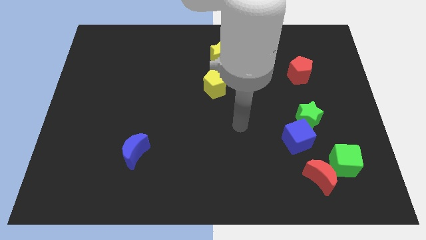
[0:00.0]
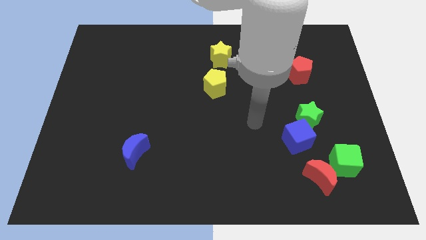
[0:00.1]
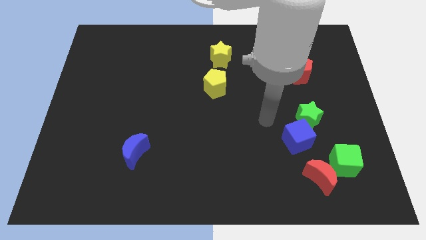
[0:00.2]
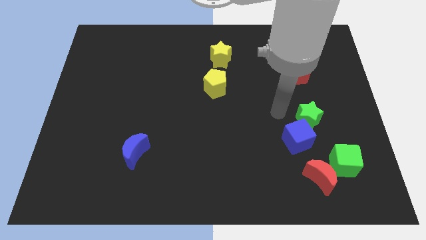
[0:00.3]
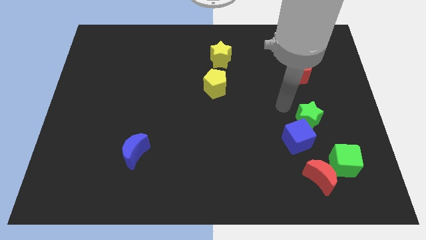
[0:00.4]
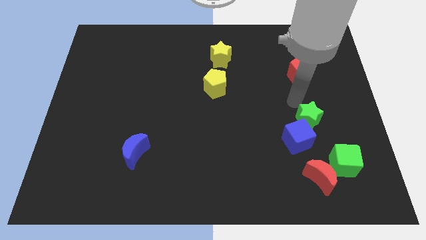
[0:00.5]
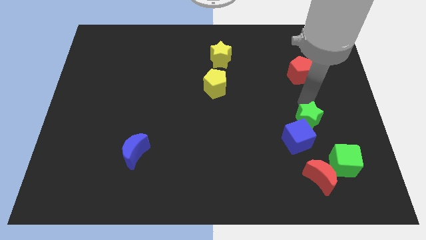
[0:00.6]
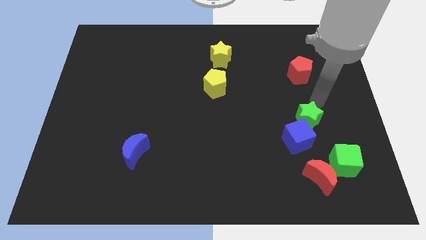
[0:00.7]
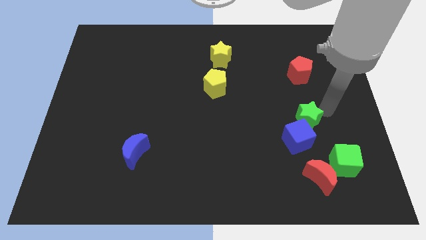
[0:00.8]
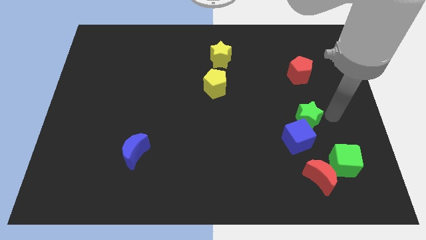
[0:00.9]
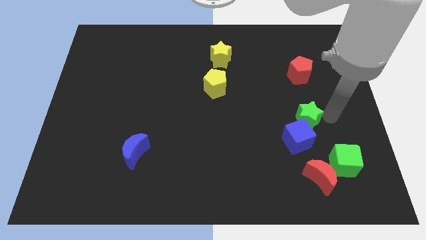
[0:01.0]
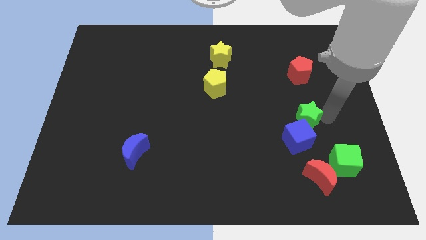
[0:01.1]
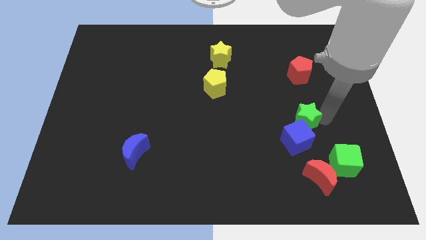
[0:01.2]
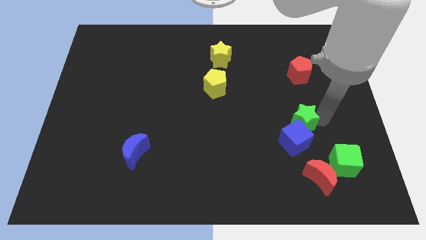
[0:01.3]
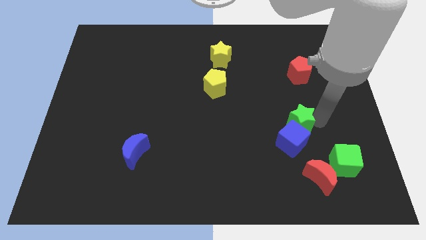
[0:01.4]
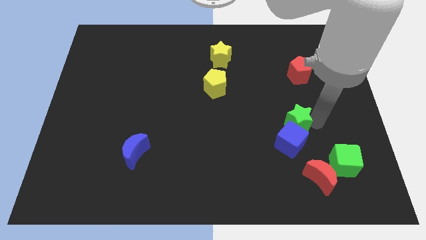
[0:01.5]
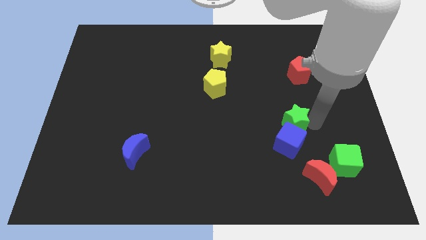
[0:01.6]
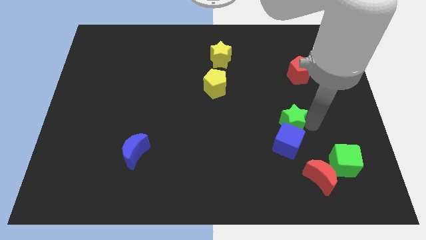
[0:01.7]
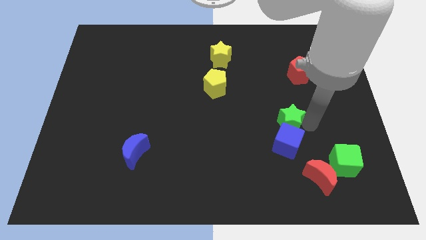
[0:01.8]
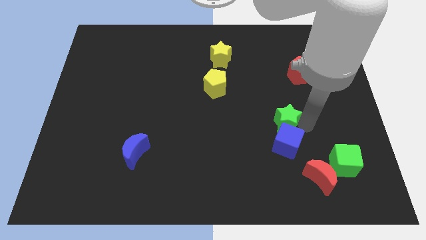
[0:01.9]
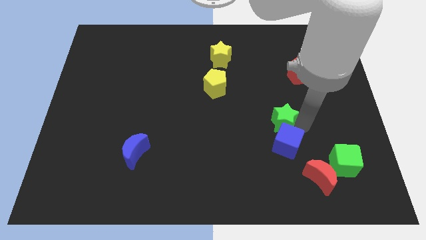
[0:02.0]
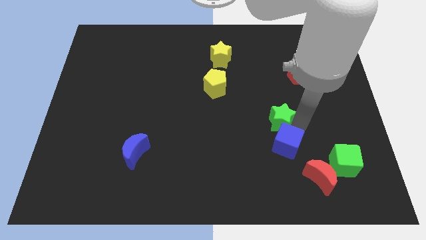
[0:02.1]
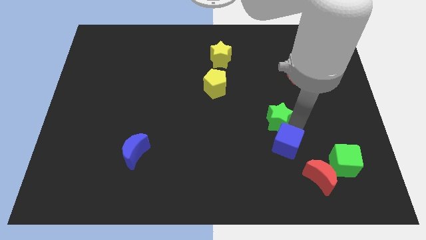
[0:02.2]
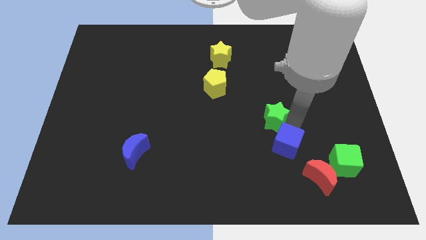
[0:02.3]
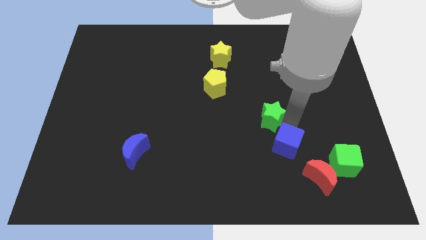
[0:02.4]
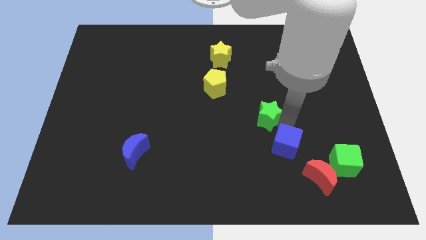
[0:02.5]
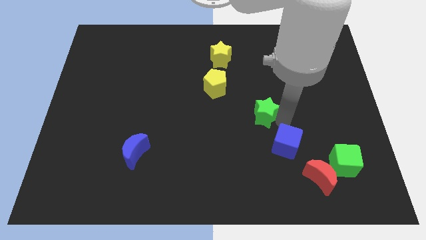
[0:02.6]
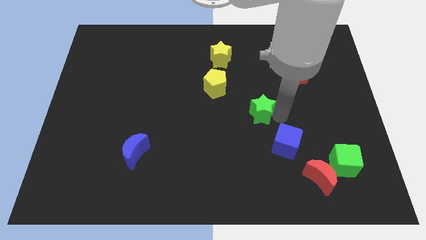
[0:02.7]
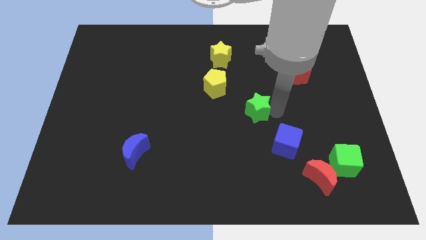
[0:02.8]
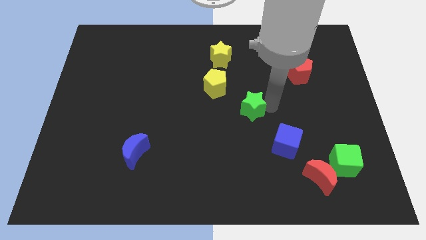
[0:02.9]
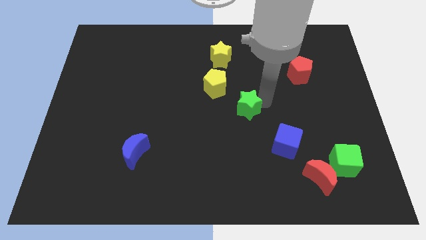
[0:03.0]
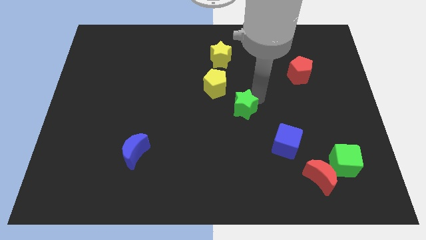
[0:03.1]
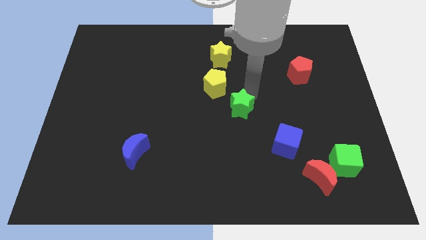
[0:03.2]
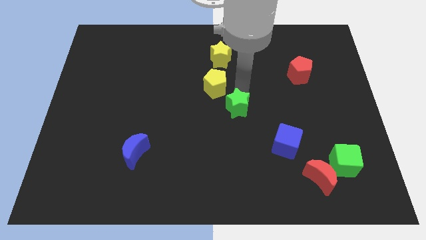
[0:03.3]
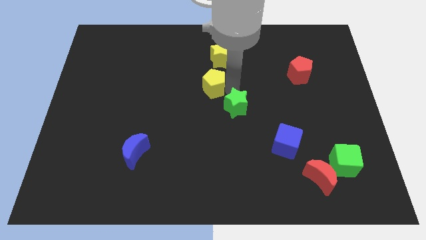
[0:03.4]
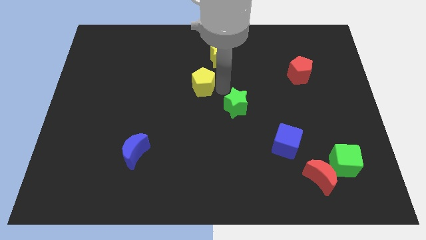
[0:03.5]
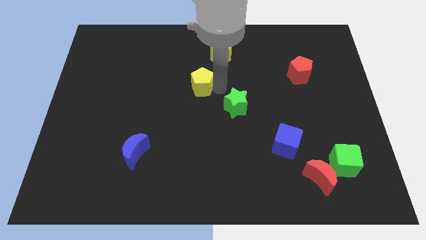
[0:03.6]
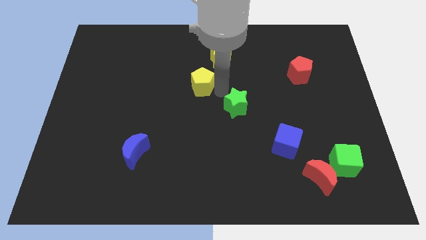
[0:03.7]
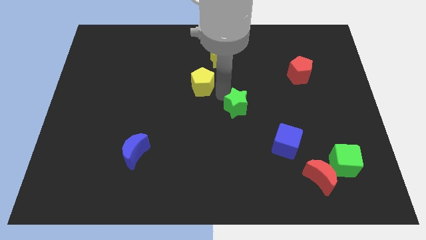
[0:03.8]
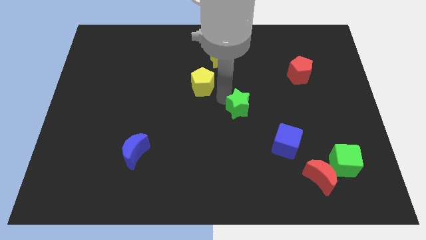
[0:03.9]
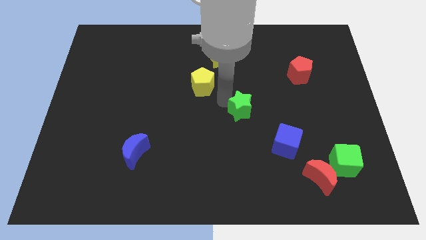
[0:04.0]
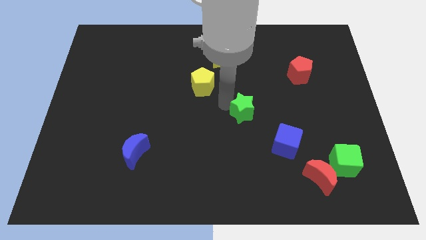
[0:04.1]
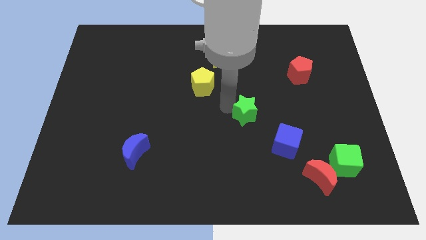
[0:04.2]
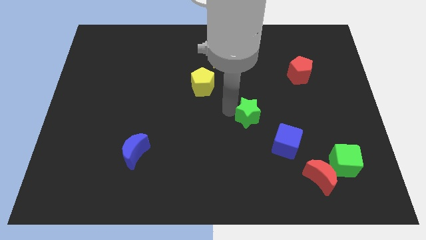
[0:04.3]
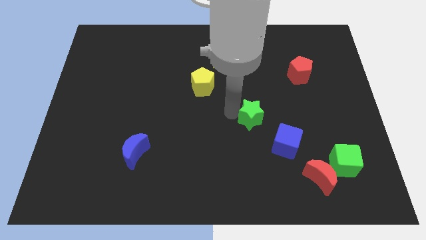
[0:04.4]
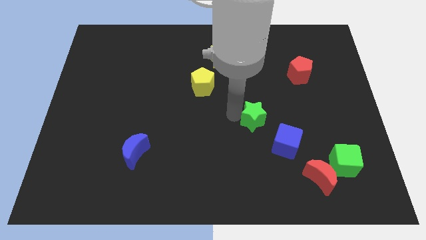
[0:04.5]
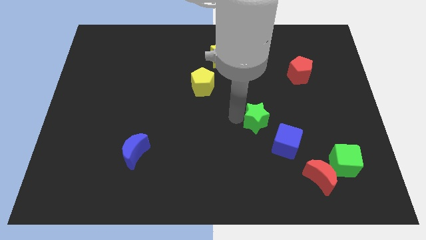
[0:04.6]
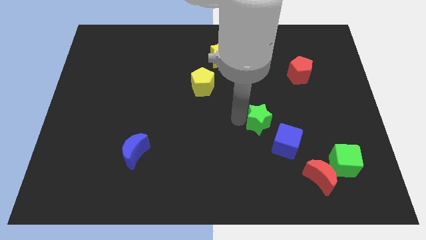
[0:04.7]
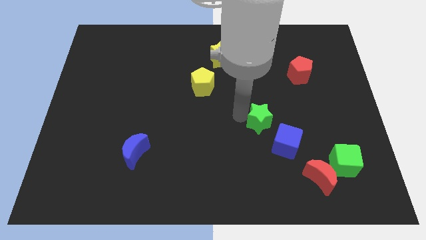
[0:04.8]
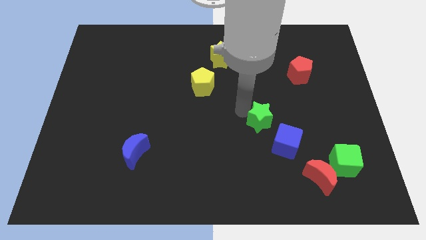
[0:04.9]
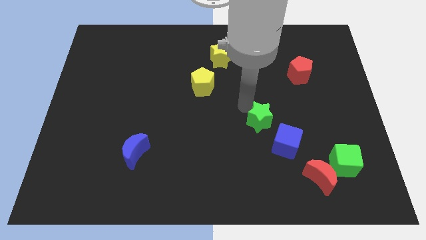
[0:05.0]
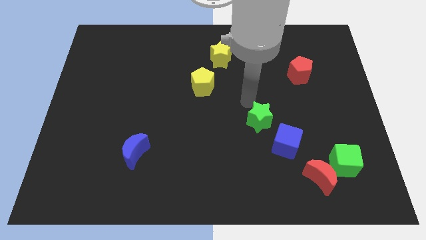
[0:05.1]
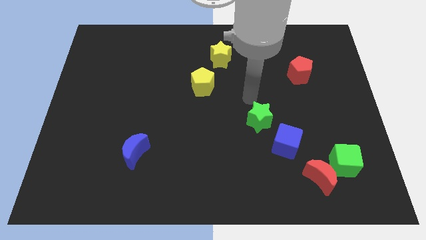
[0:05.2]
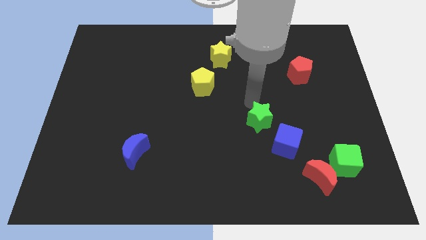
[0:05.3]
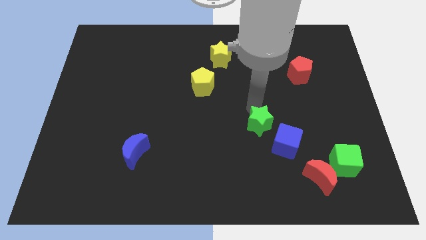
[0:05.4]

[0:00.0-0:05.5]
slide the green star a little diagonally downwards and left

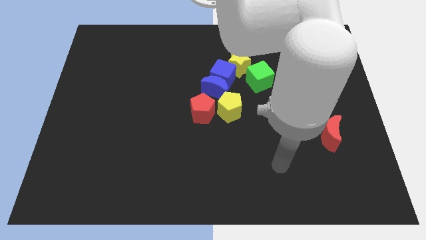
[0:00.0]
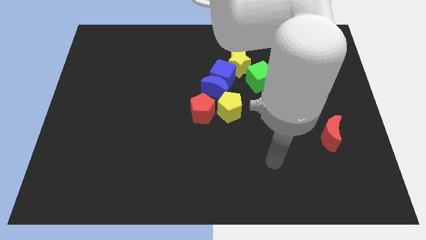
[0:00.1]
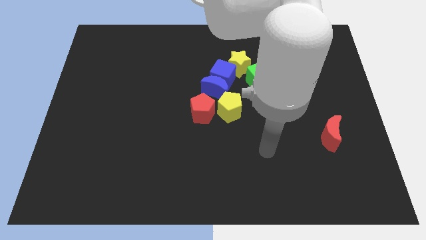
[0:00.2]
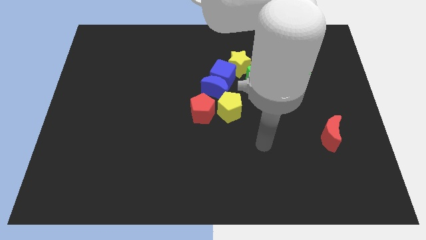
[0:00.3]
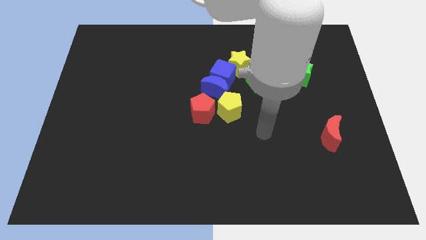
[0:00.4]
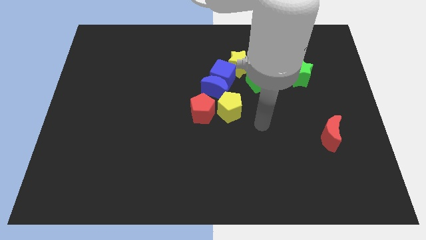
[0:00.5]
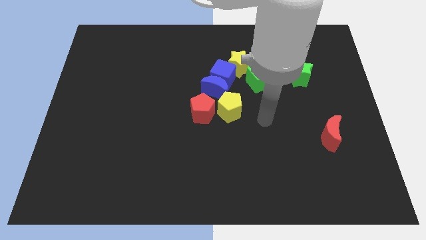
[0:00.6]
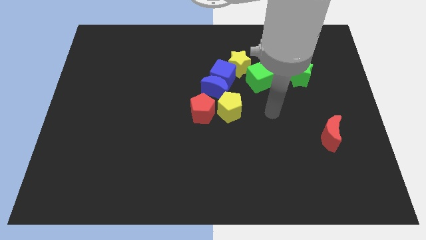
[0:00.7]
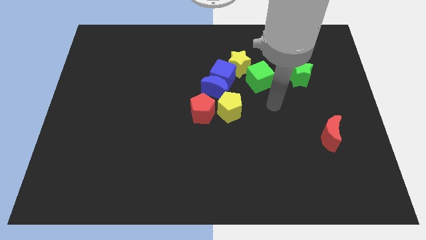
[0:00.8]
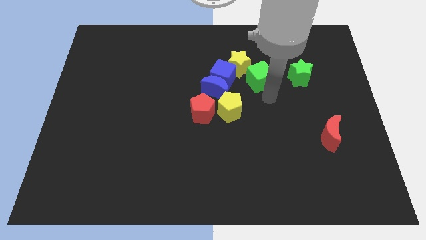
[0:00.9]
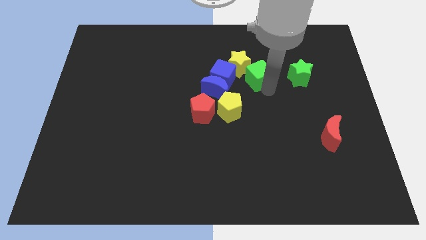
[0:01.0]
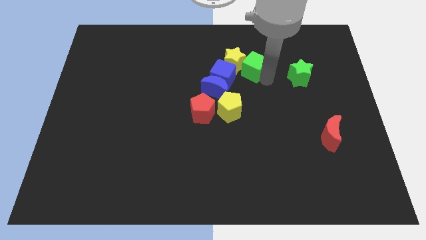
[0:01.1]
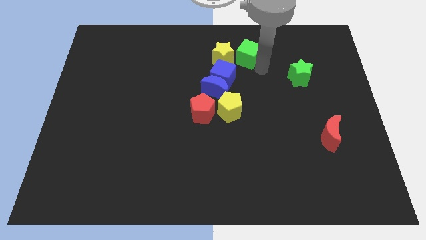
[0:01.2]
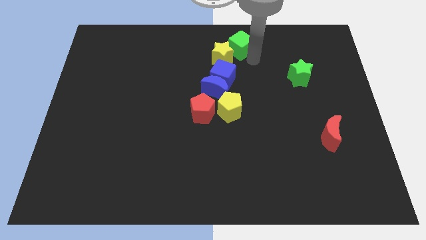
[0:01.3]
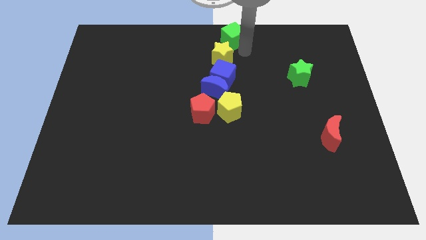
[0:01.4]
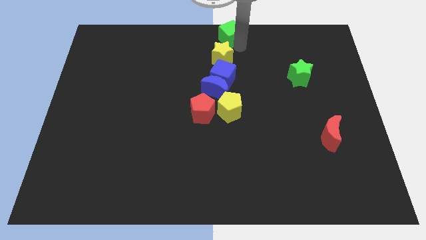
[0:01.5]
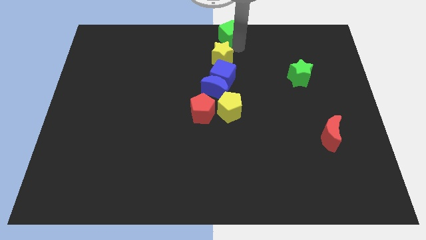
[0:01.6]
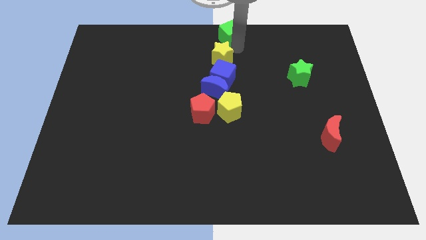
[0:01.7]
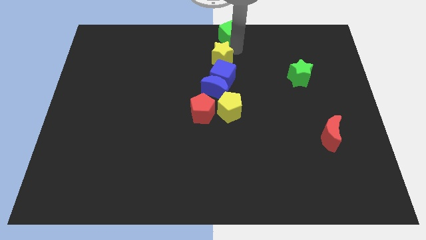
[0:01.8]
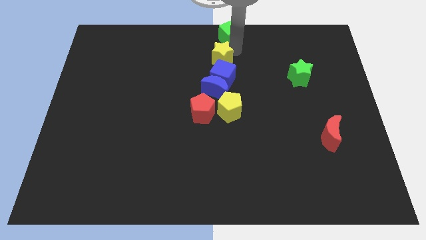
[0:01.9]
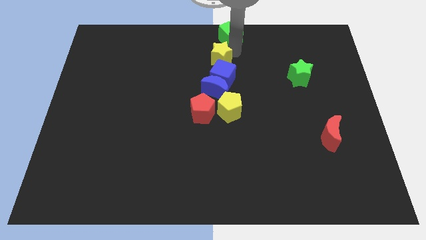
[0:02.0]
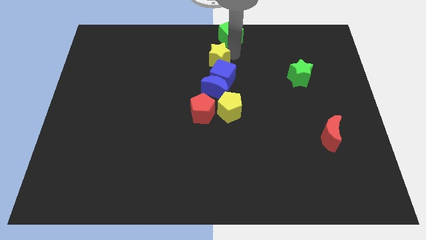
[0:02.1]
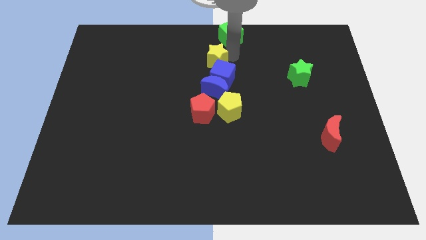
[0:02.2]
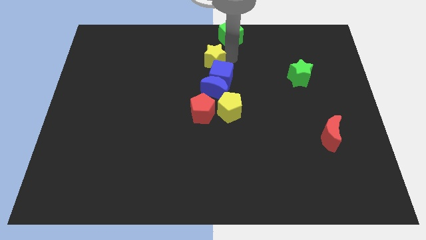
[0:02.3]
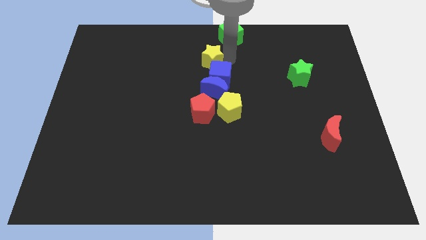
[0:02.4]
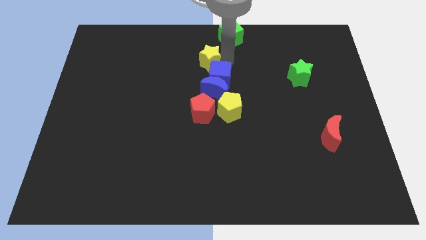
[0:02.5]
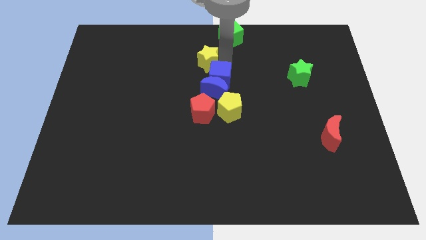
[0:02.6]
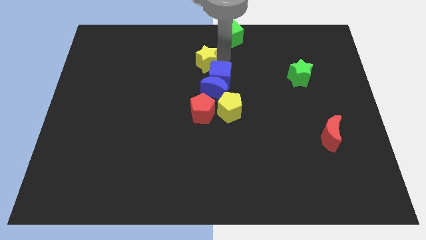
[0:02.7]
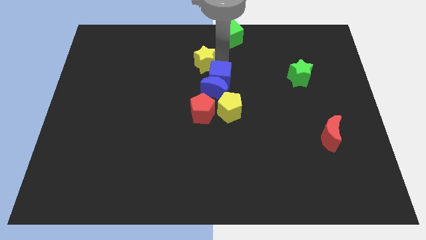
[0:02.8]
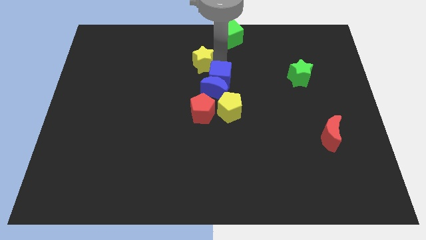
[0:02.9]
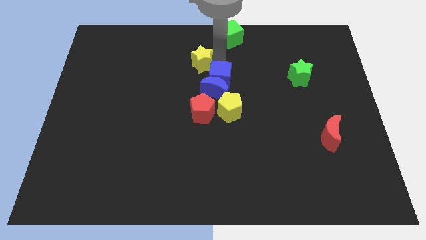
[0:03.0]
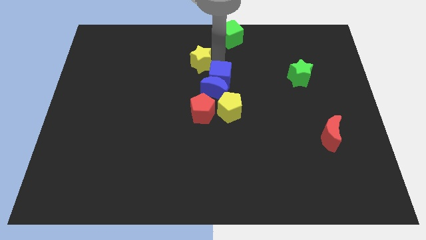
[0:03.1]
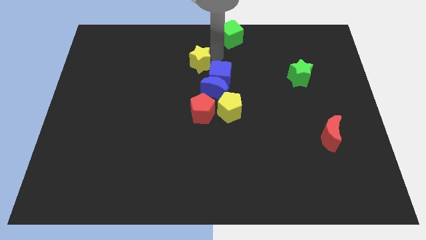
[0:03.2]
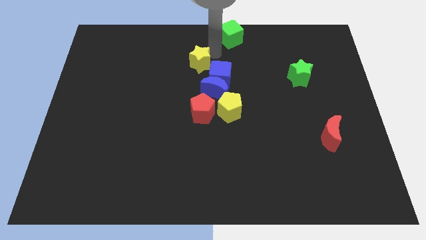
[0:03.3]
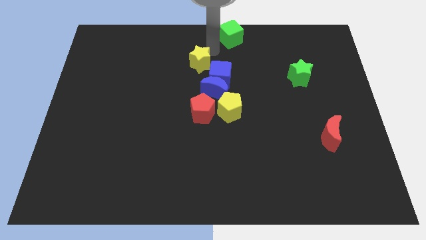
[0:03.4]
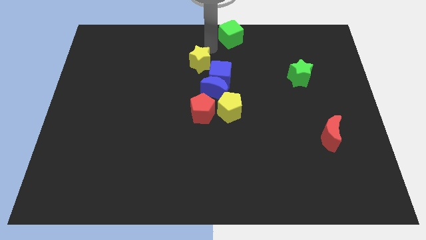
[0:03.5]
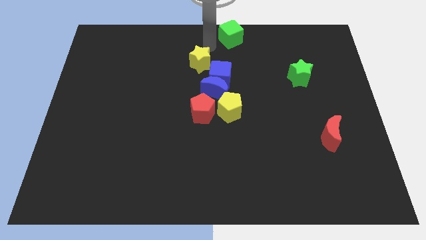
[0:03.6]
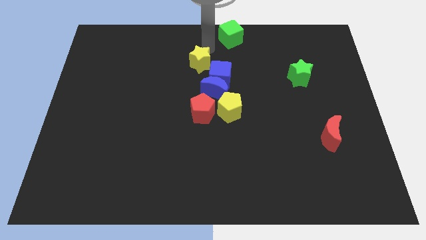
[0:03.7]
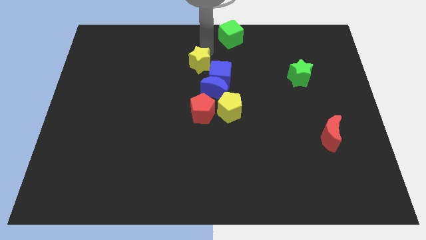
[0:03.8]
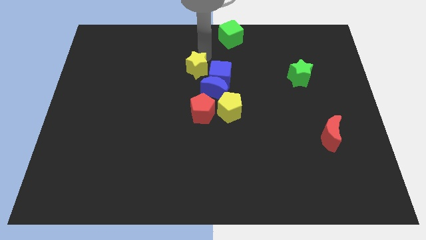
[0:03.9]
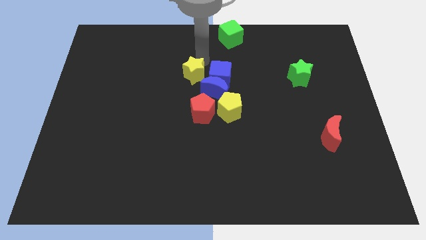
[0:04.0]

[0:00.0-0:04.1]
slide the yellow star down and to the left a little
